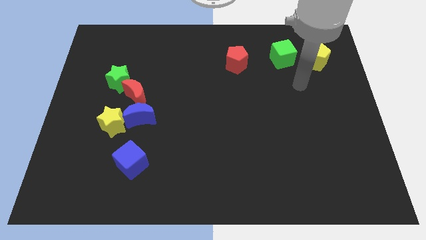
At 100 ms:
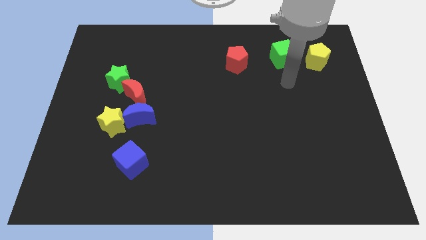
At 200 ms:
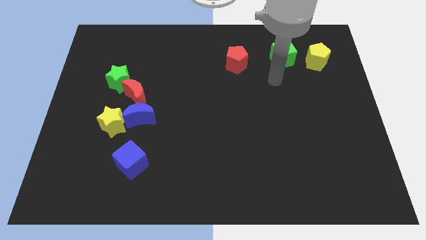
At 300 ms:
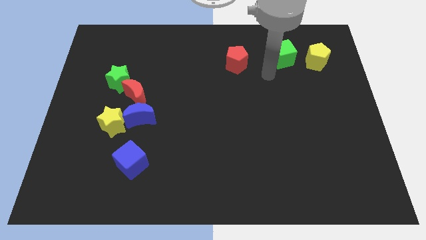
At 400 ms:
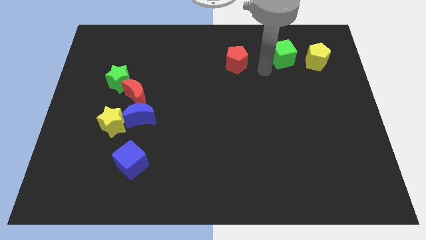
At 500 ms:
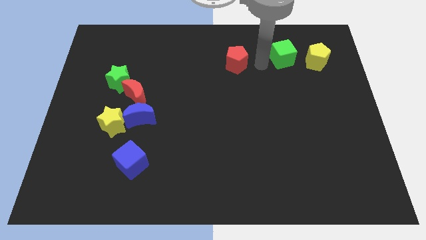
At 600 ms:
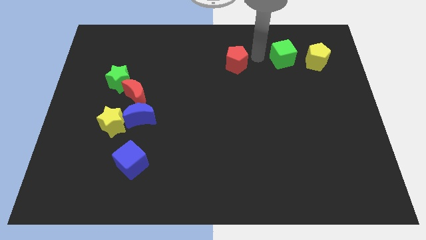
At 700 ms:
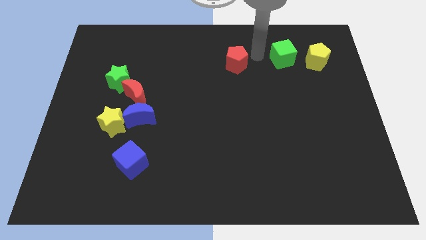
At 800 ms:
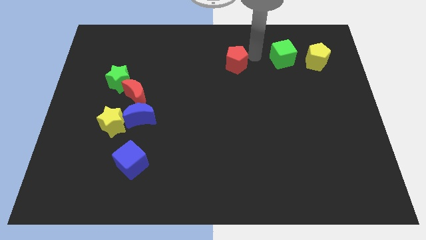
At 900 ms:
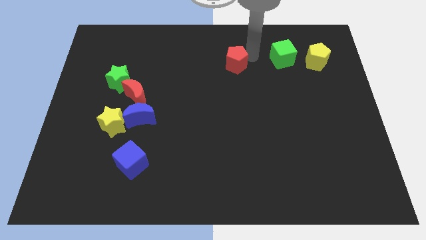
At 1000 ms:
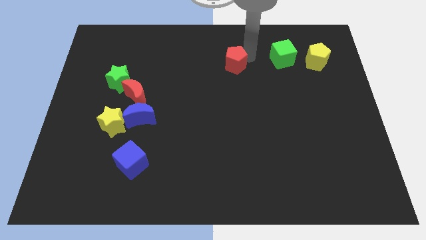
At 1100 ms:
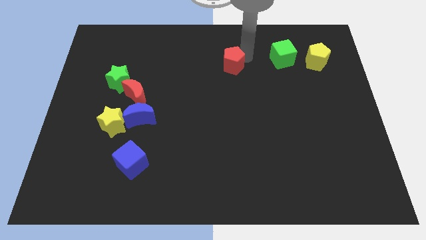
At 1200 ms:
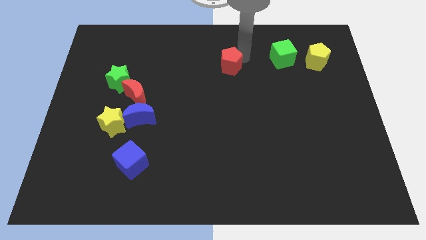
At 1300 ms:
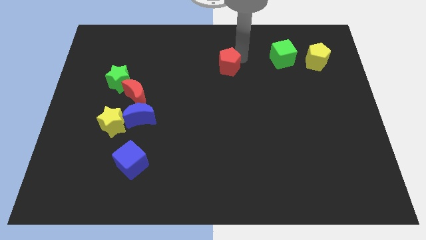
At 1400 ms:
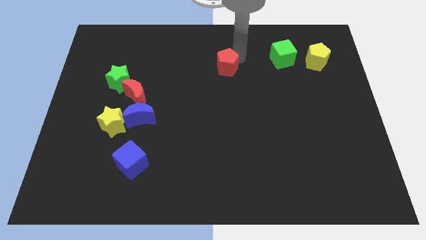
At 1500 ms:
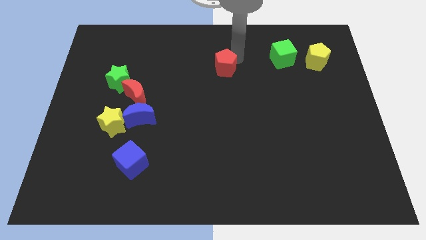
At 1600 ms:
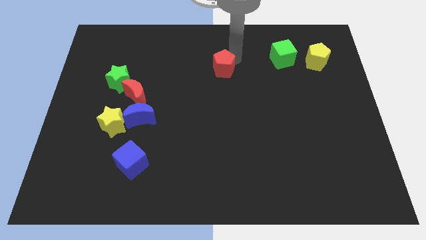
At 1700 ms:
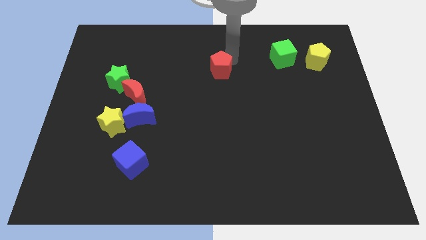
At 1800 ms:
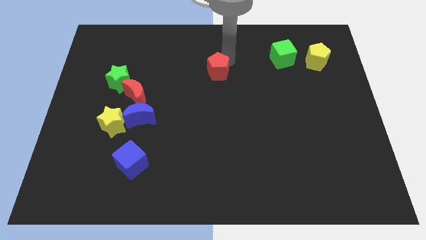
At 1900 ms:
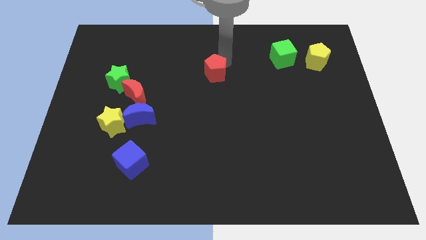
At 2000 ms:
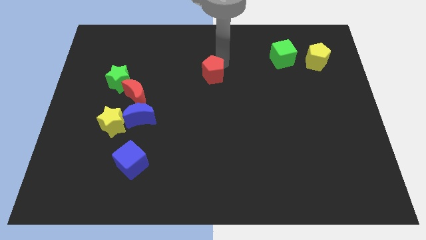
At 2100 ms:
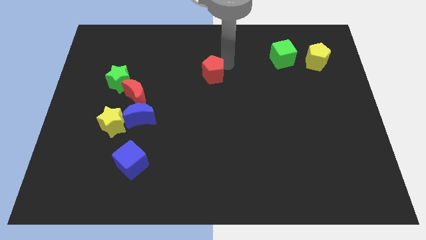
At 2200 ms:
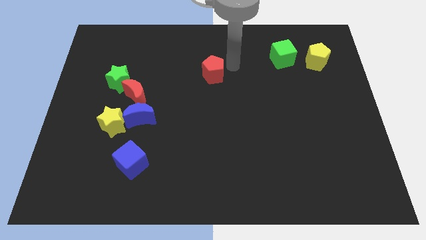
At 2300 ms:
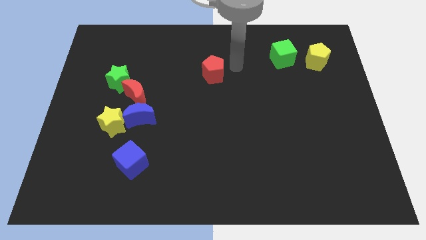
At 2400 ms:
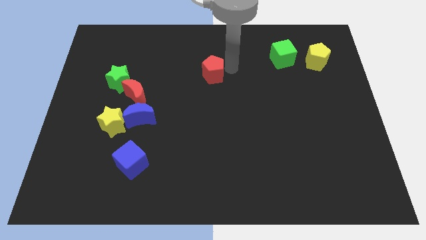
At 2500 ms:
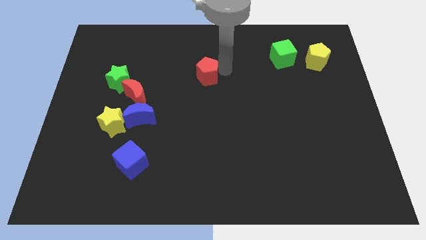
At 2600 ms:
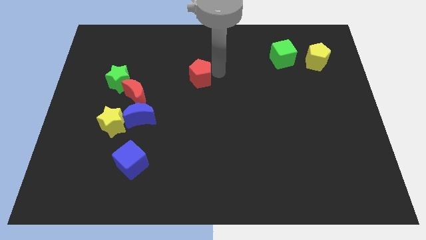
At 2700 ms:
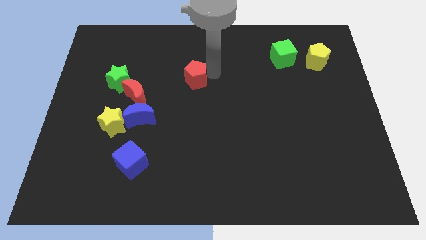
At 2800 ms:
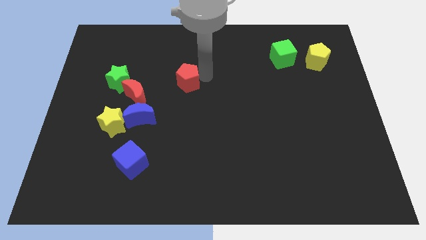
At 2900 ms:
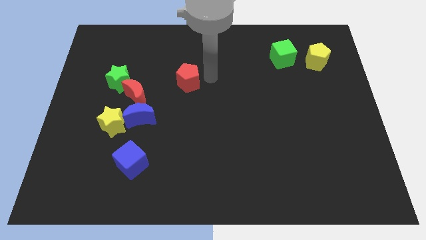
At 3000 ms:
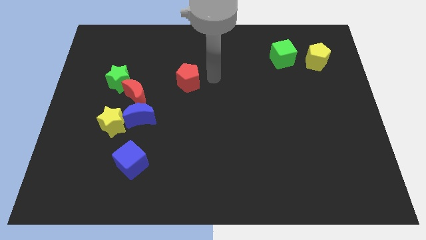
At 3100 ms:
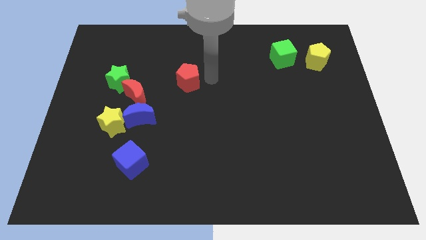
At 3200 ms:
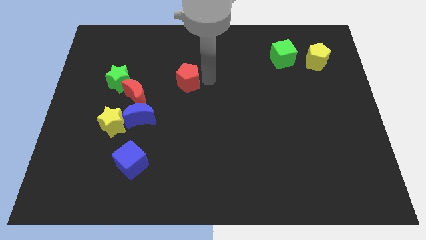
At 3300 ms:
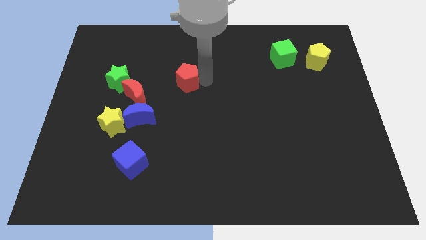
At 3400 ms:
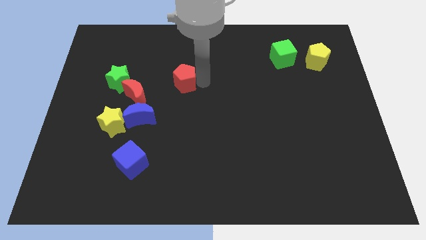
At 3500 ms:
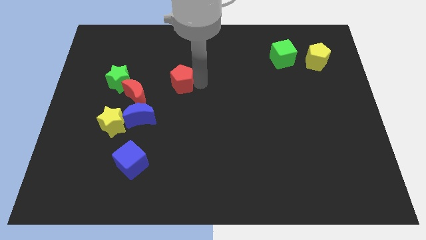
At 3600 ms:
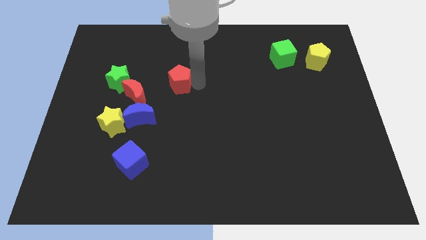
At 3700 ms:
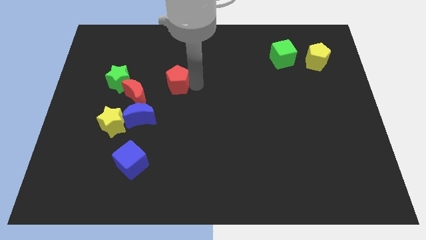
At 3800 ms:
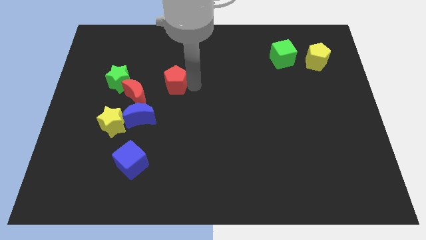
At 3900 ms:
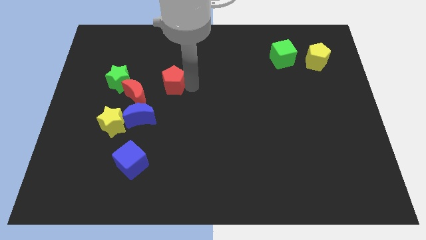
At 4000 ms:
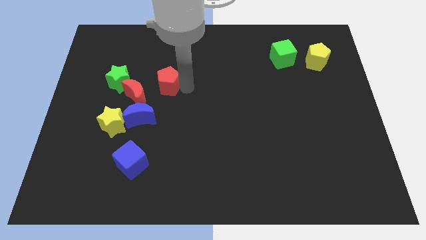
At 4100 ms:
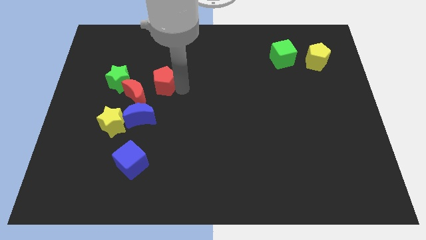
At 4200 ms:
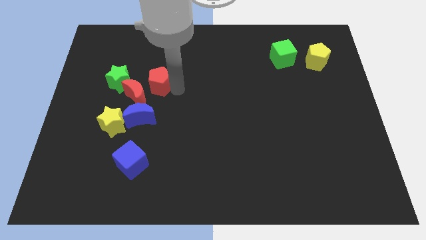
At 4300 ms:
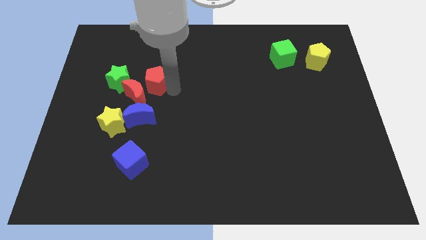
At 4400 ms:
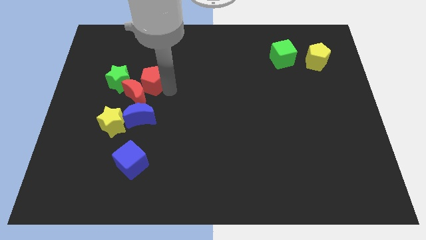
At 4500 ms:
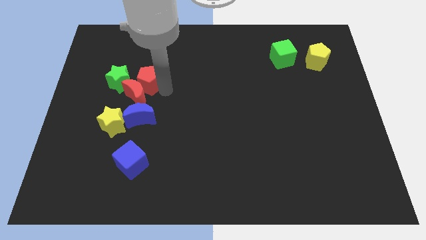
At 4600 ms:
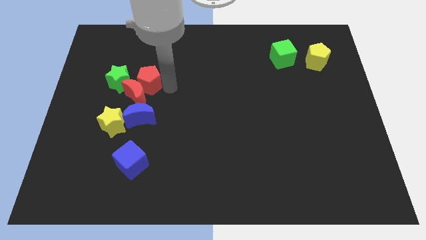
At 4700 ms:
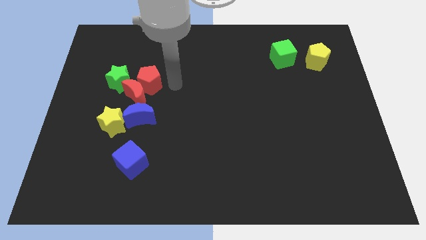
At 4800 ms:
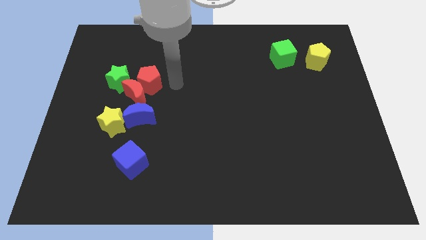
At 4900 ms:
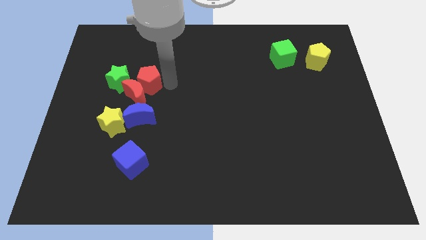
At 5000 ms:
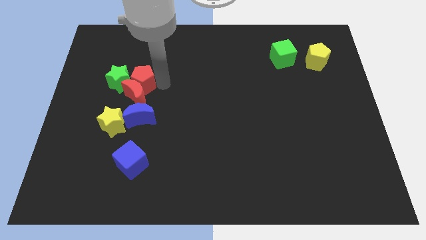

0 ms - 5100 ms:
move the red pentagon close to the green star

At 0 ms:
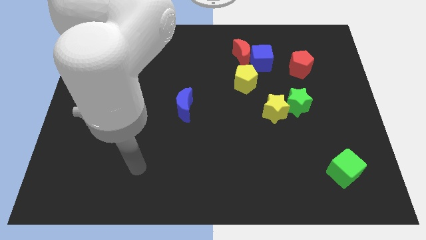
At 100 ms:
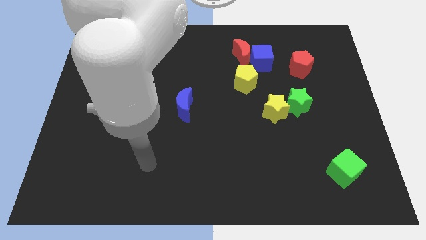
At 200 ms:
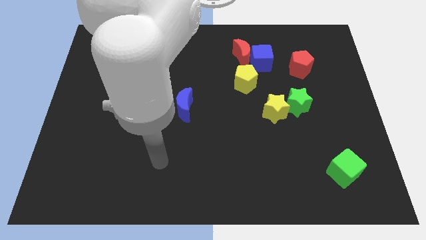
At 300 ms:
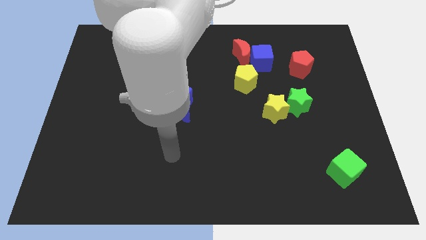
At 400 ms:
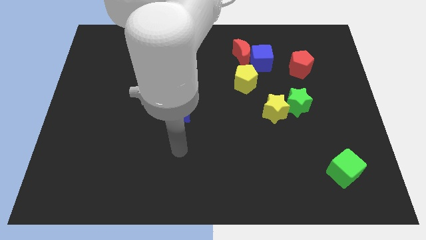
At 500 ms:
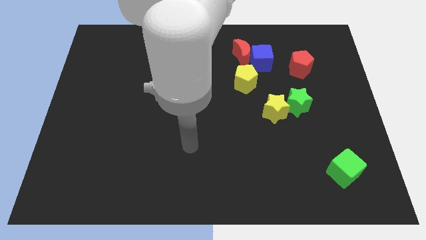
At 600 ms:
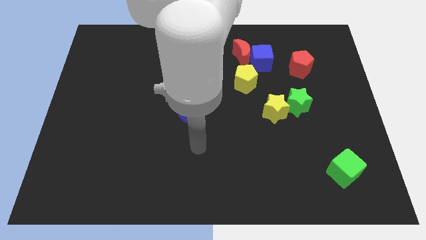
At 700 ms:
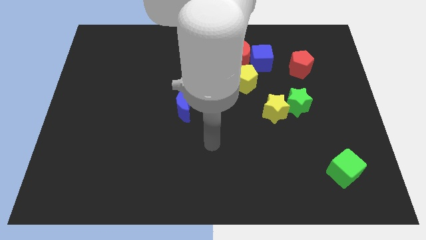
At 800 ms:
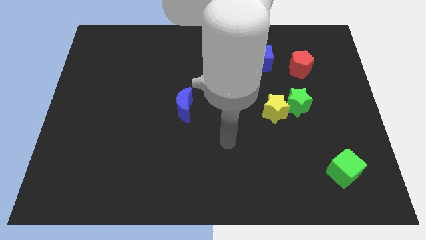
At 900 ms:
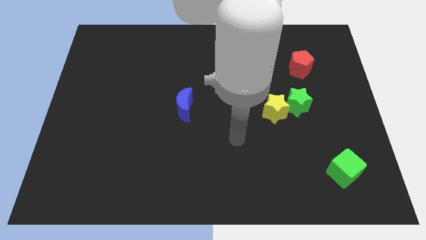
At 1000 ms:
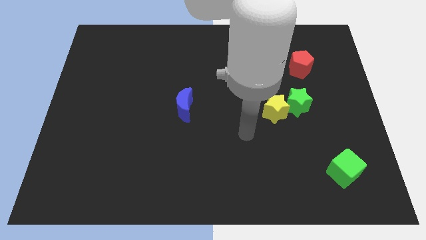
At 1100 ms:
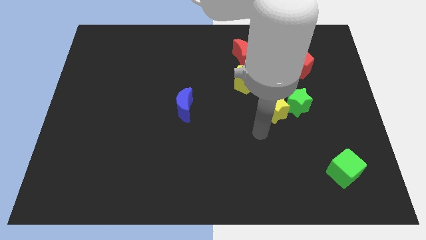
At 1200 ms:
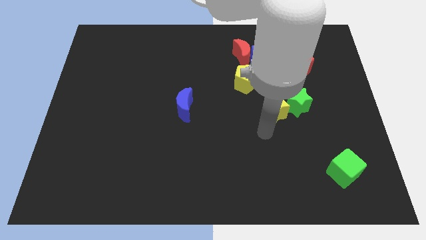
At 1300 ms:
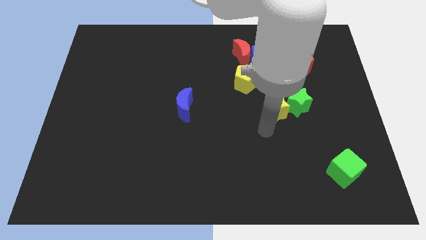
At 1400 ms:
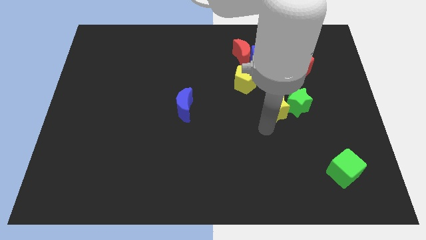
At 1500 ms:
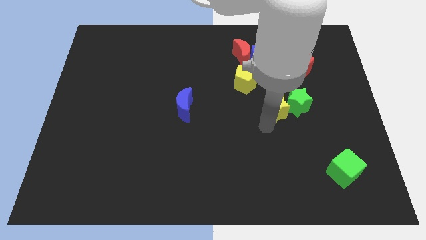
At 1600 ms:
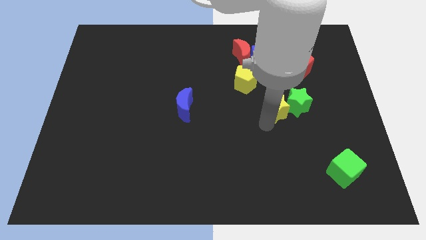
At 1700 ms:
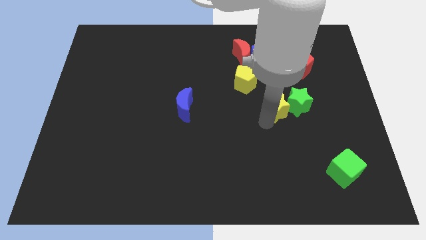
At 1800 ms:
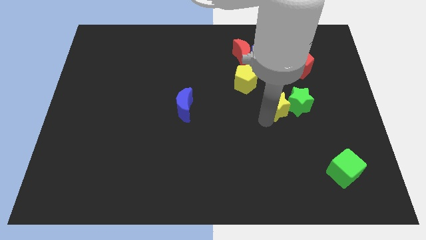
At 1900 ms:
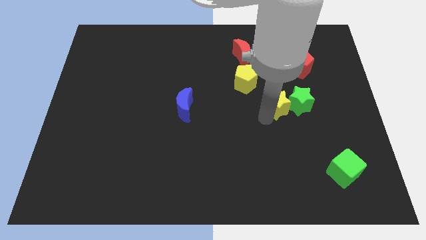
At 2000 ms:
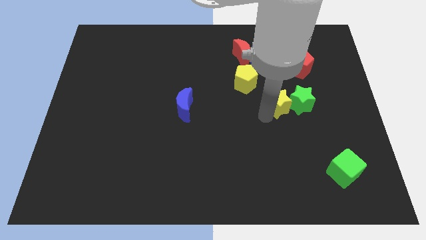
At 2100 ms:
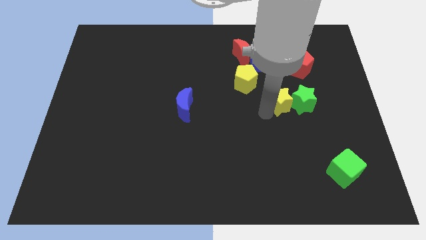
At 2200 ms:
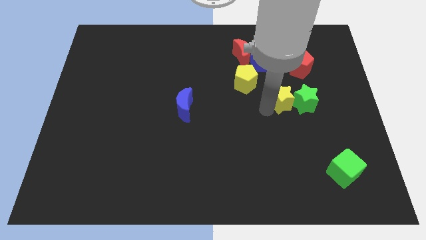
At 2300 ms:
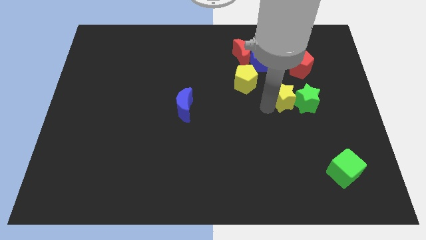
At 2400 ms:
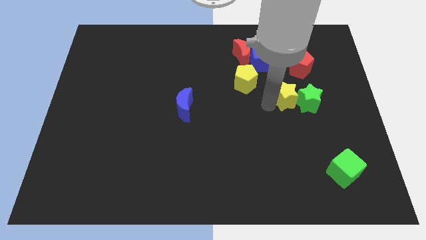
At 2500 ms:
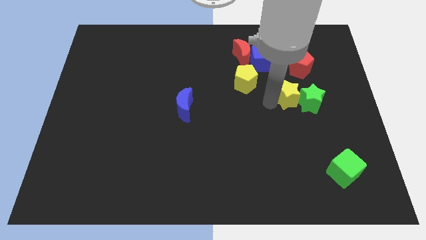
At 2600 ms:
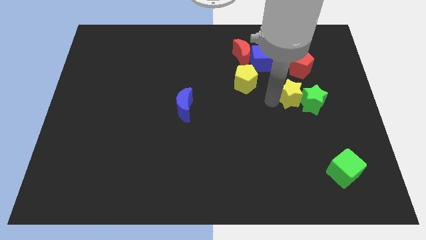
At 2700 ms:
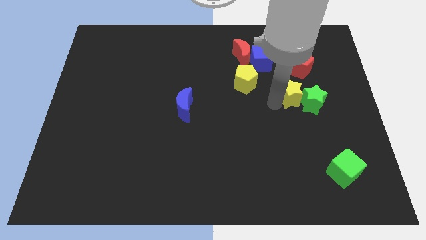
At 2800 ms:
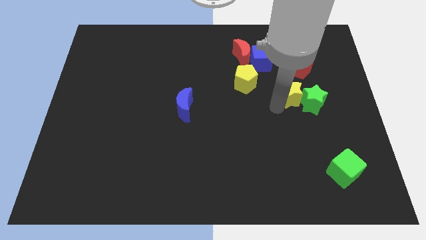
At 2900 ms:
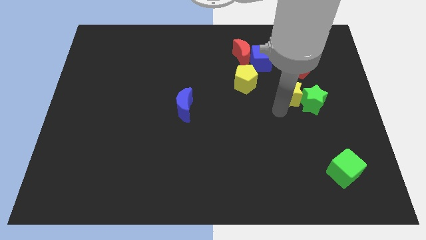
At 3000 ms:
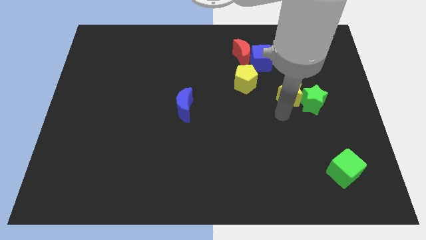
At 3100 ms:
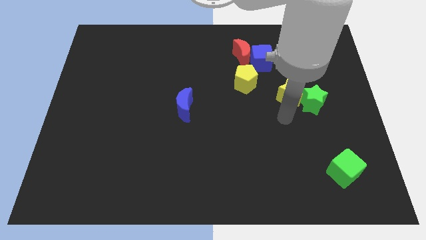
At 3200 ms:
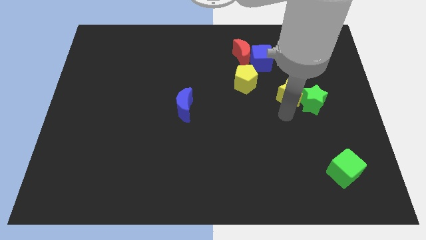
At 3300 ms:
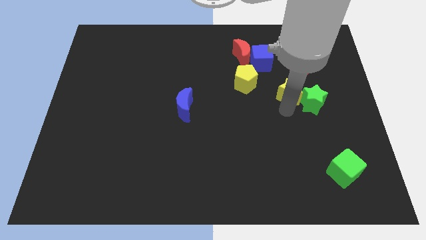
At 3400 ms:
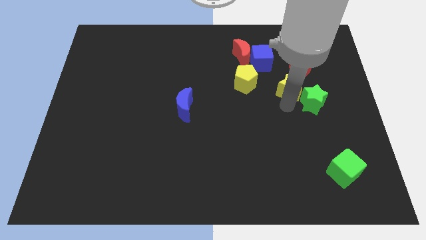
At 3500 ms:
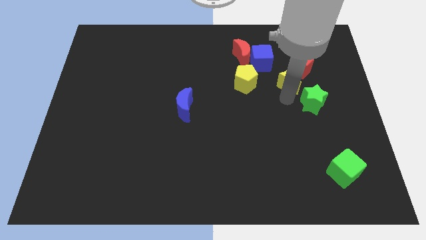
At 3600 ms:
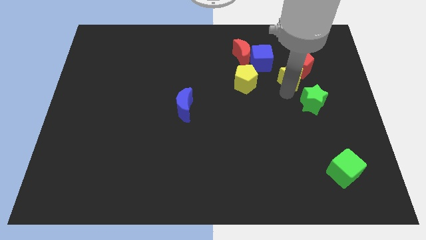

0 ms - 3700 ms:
put the yellow star next to the red pentagon
